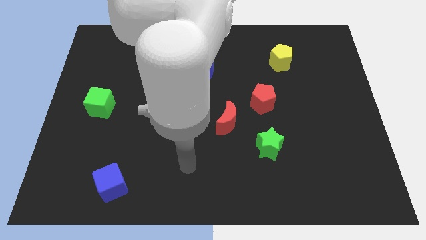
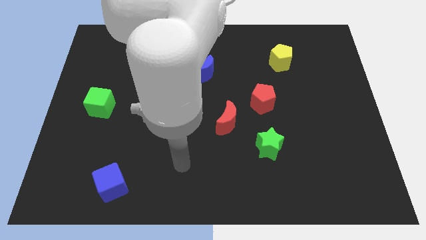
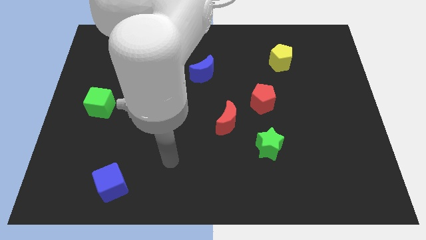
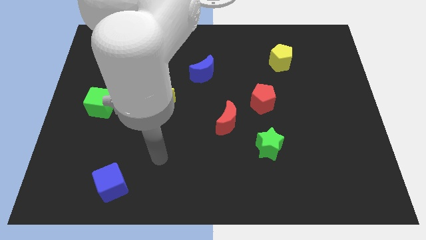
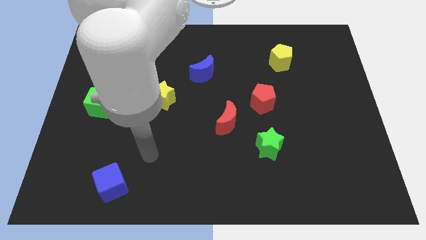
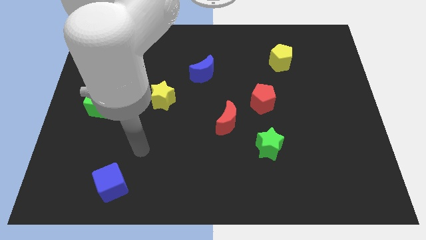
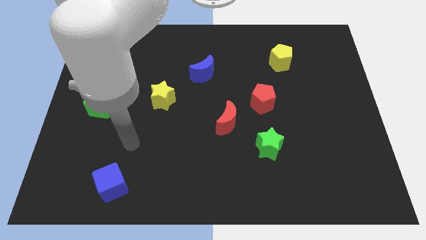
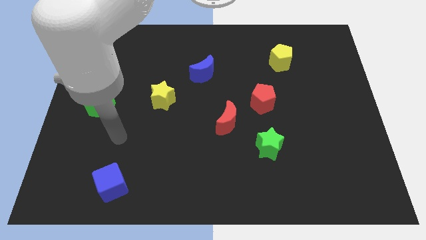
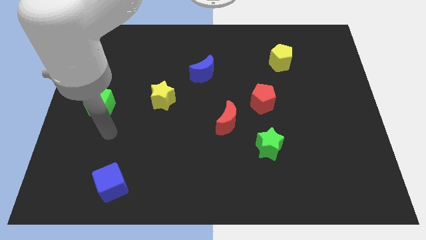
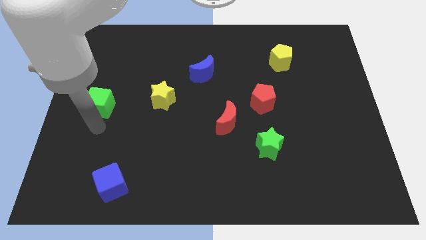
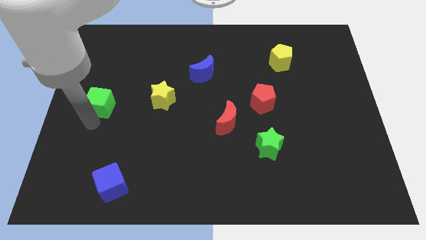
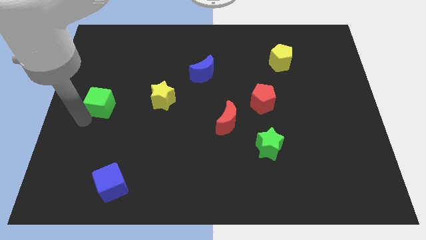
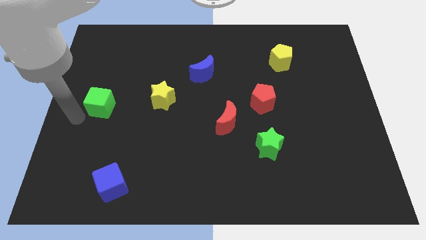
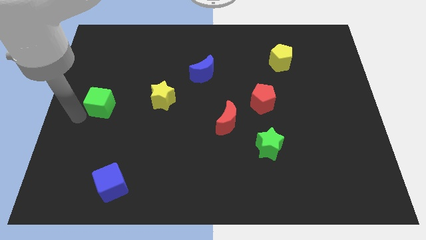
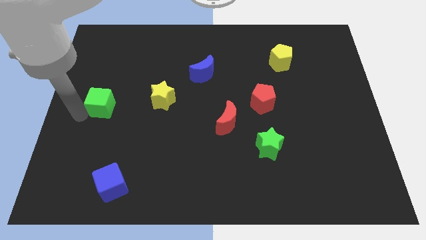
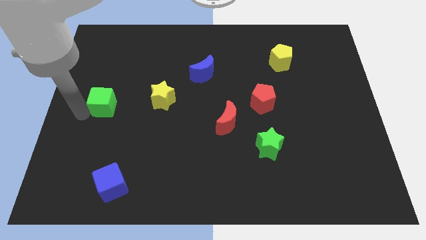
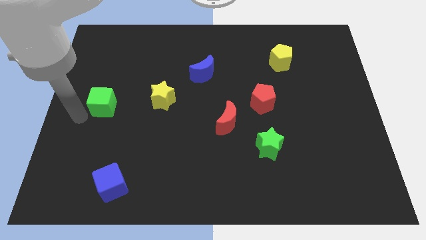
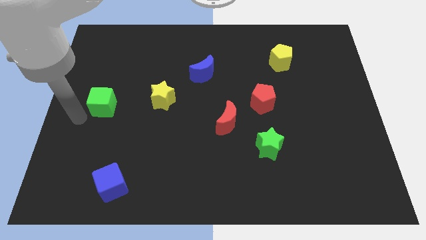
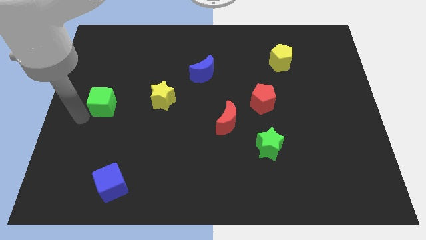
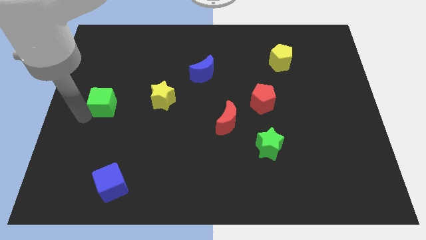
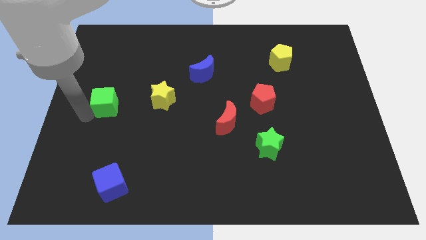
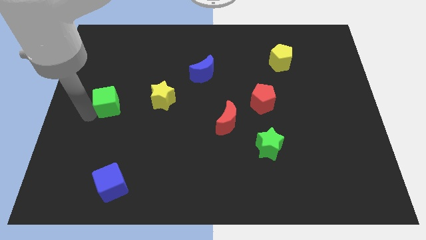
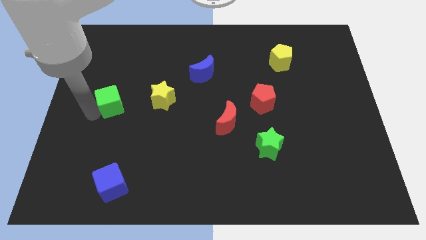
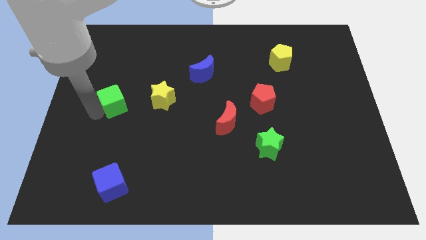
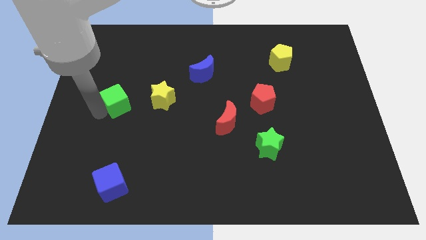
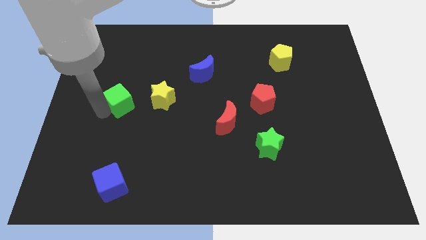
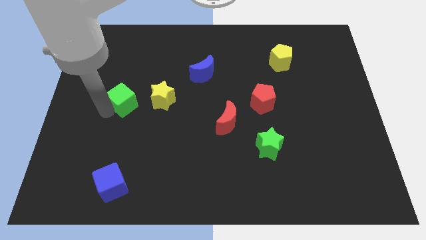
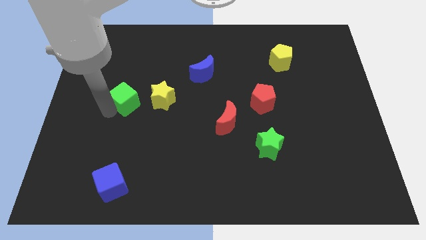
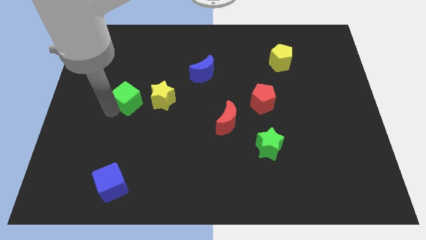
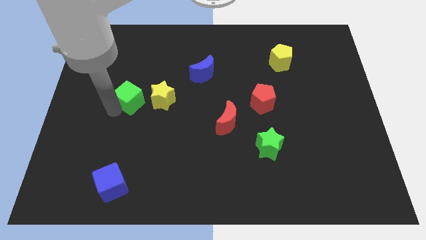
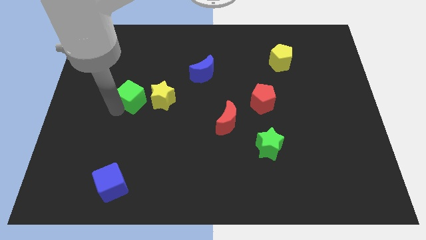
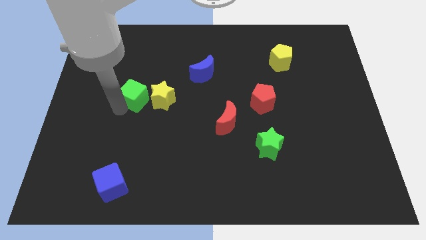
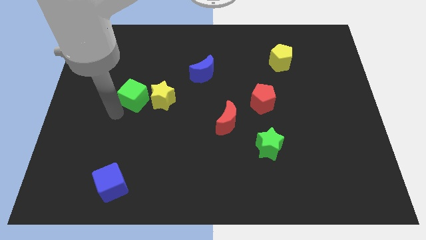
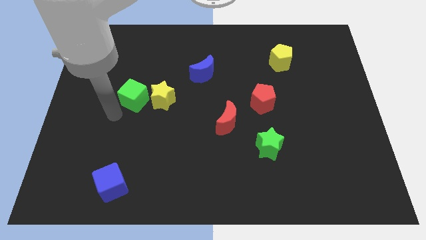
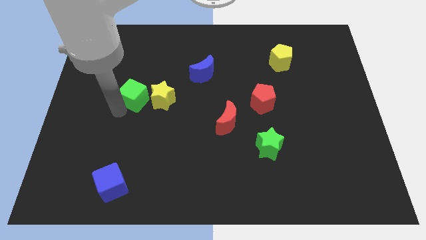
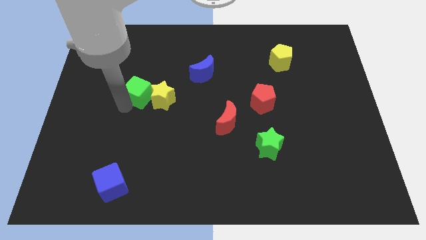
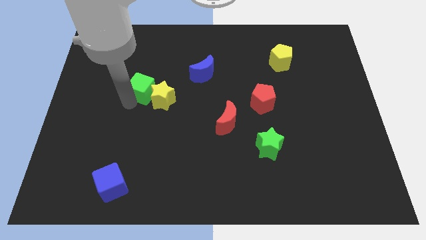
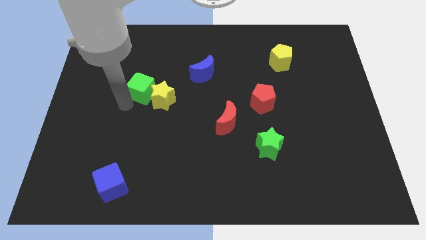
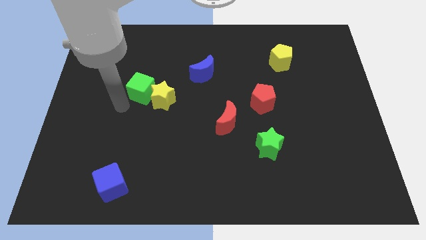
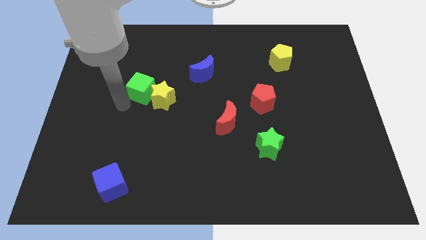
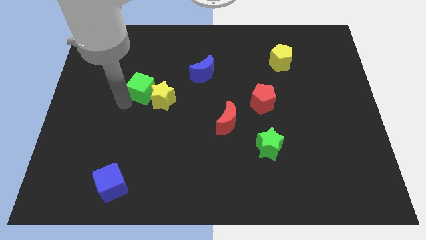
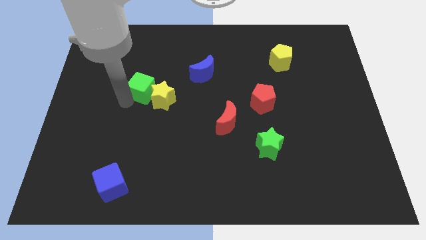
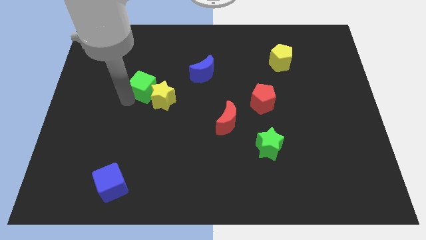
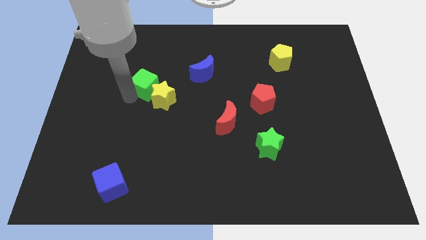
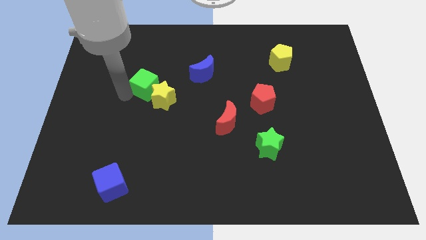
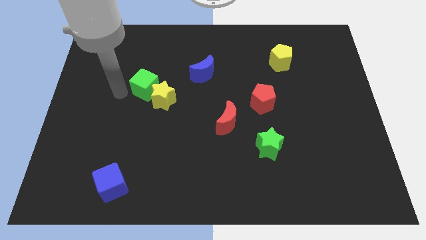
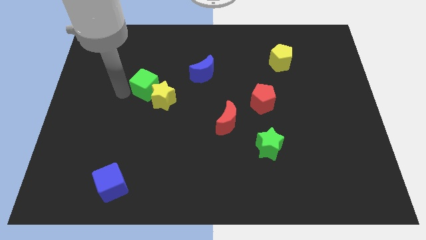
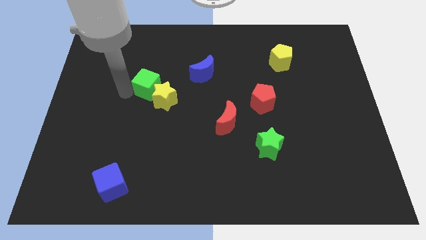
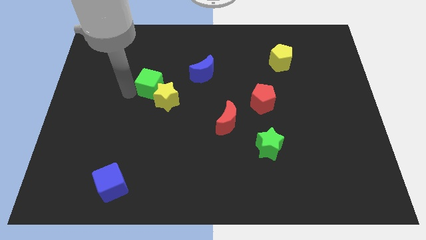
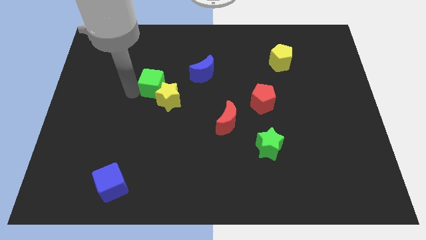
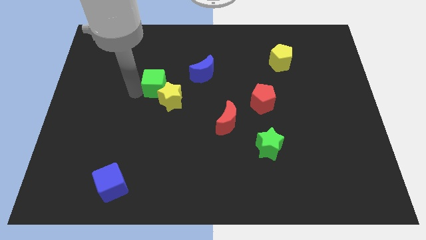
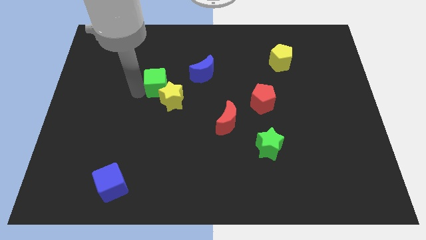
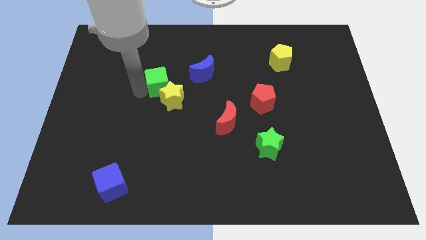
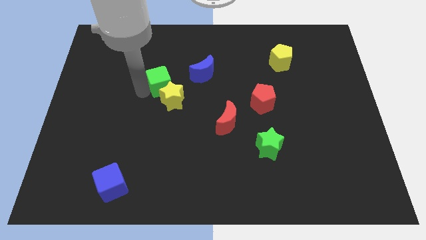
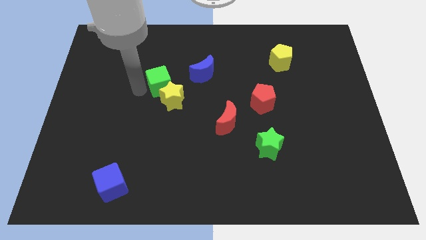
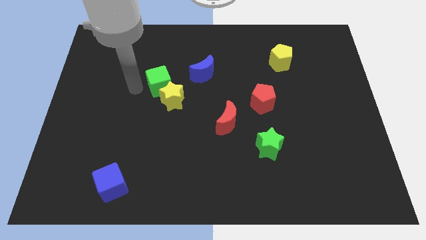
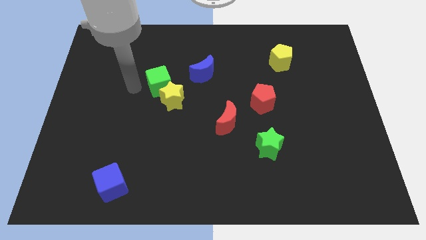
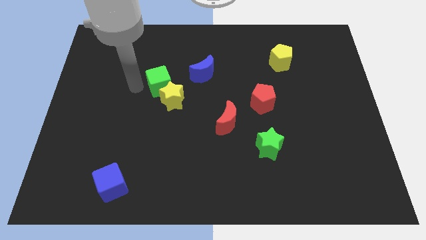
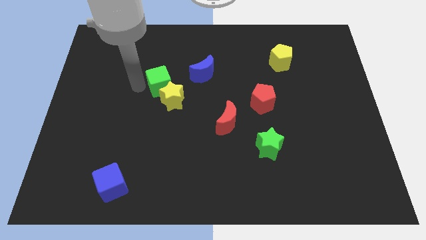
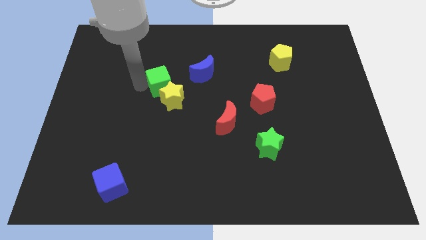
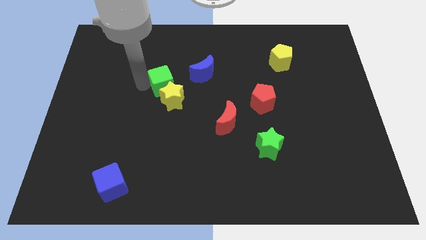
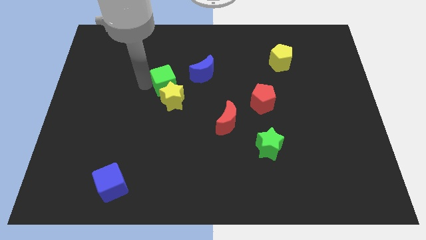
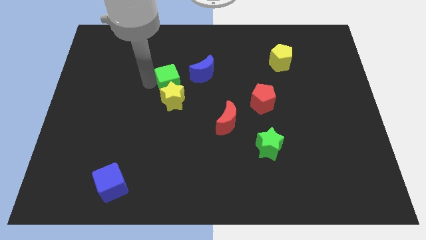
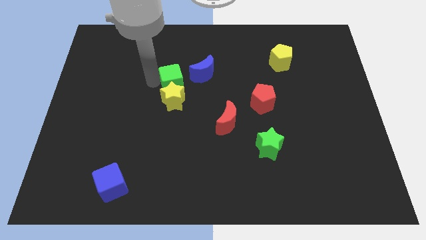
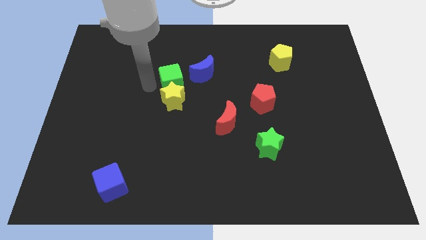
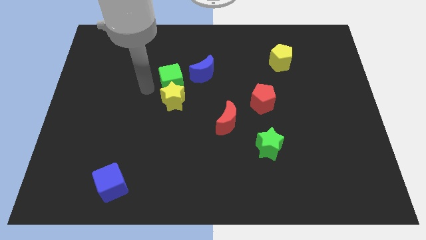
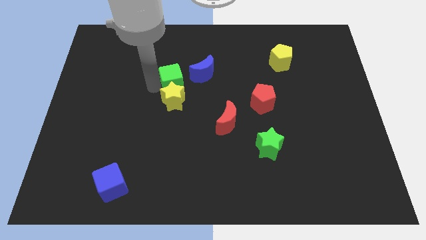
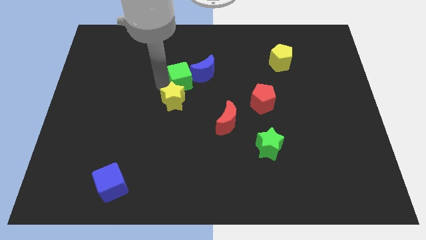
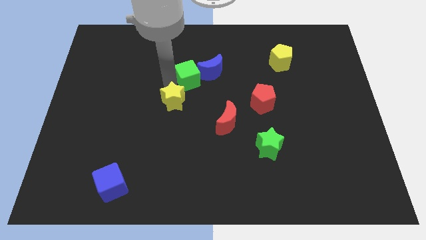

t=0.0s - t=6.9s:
push the green cube to the blue moon

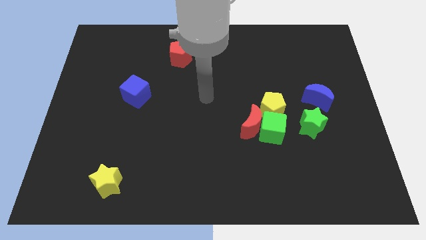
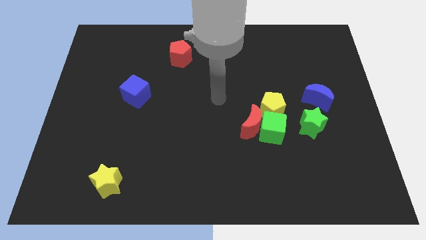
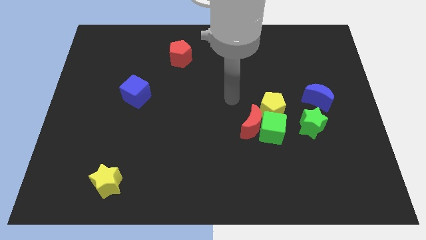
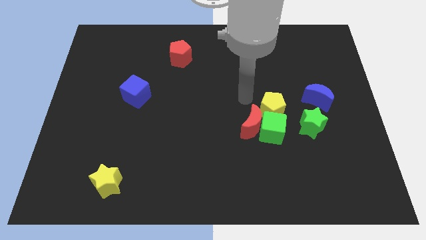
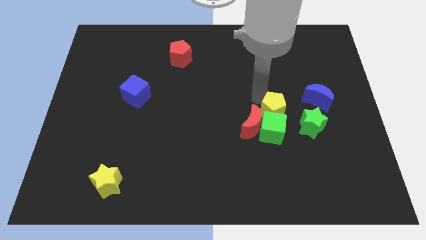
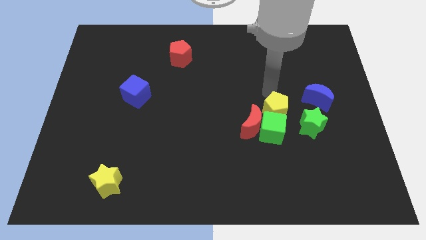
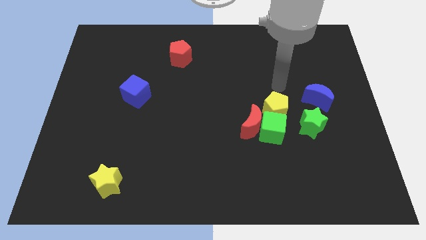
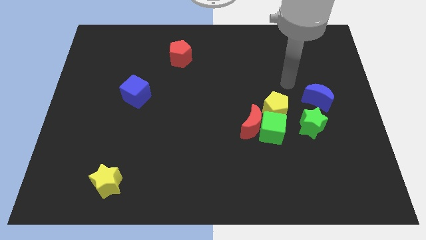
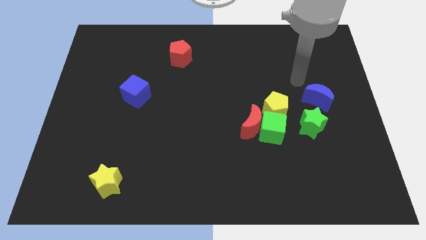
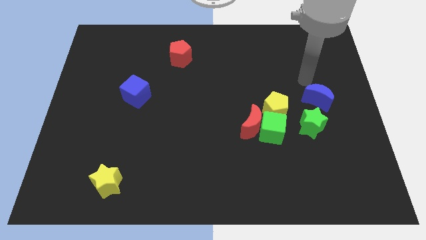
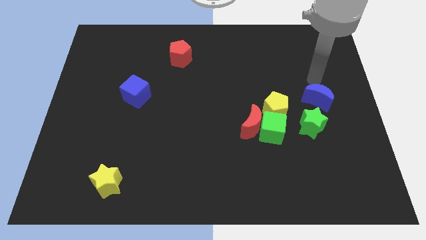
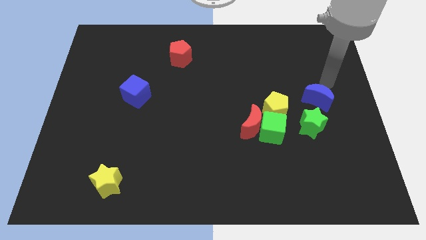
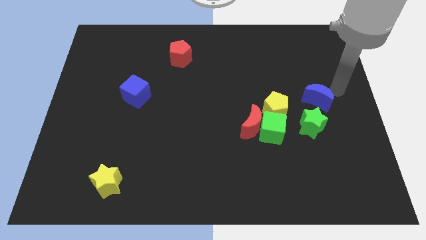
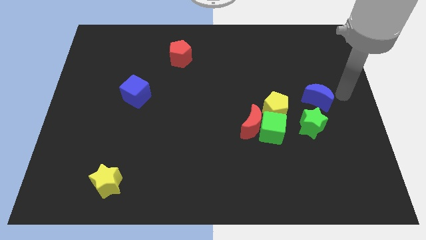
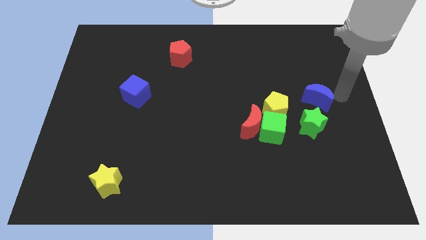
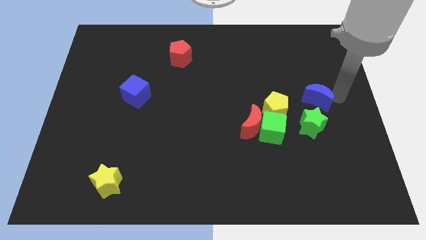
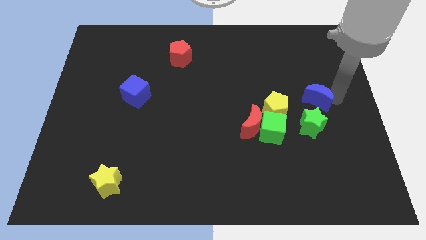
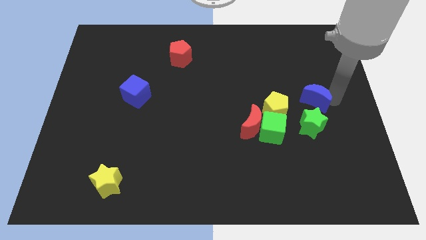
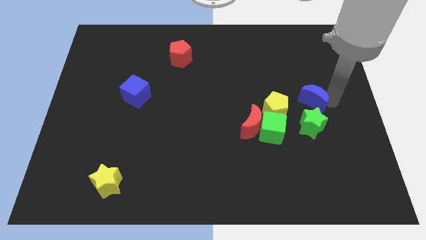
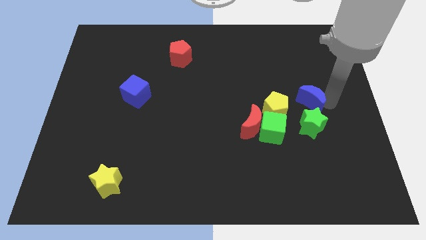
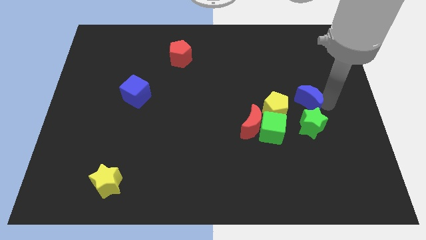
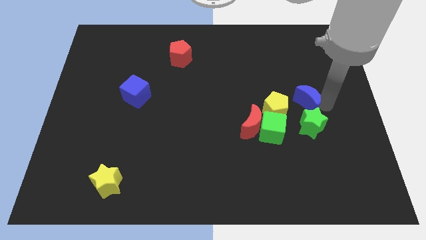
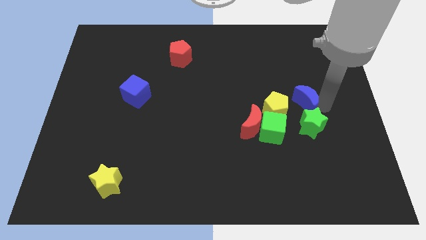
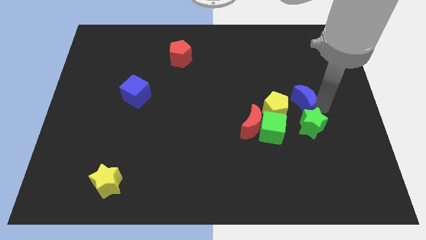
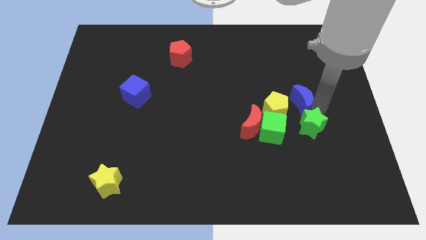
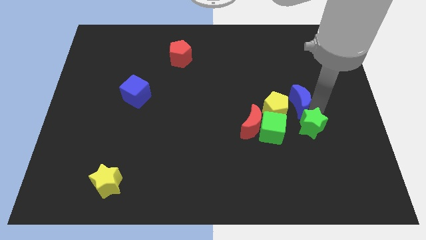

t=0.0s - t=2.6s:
move the blue moon towards the yellow pentagon
